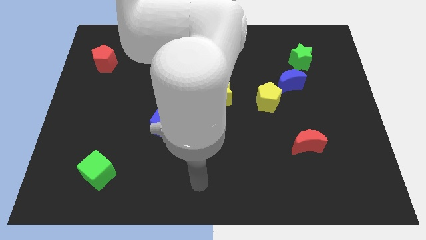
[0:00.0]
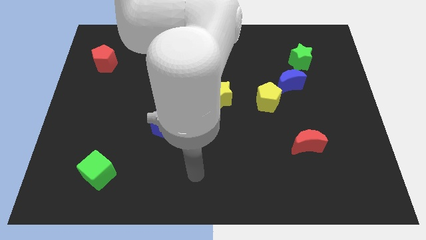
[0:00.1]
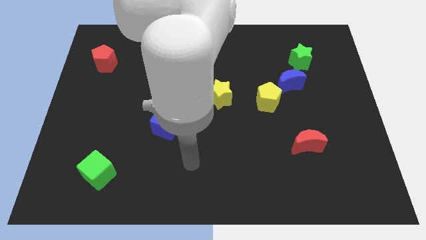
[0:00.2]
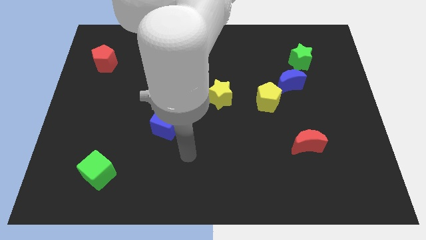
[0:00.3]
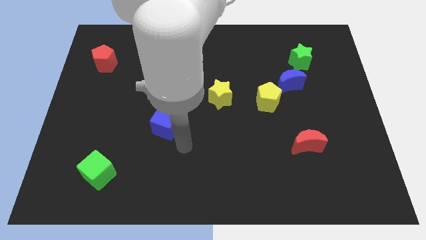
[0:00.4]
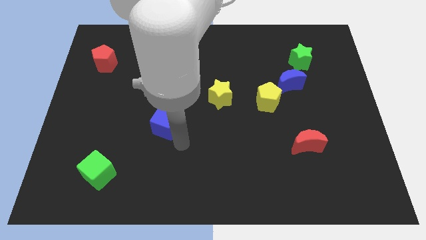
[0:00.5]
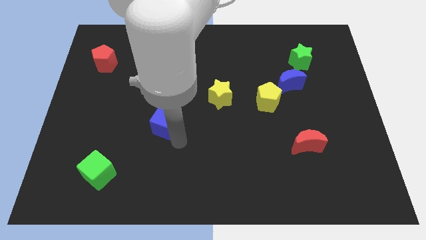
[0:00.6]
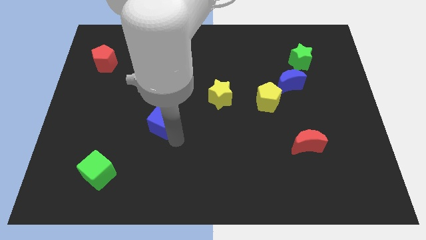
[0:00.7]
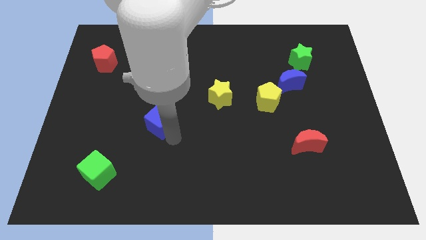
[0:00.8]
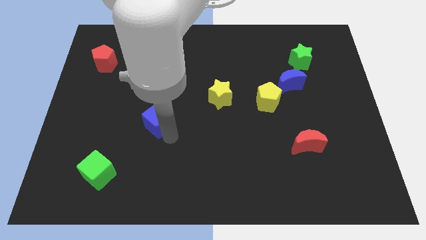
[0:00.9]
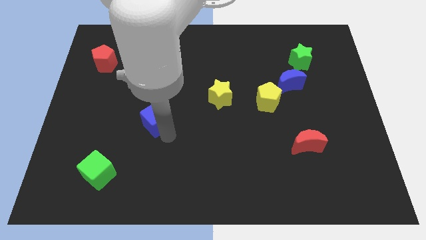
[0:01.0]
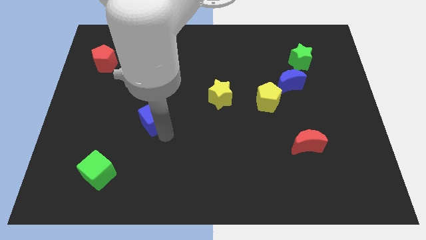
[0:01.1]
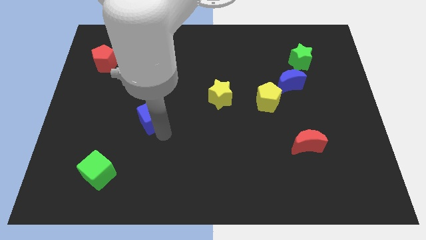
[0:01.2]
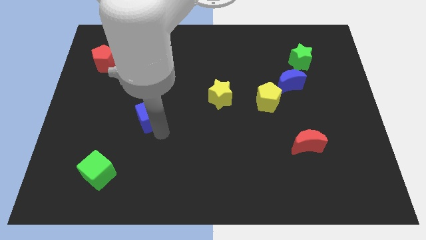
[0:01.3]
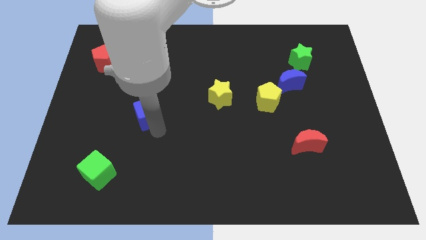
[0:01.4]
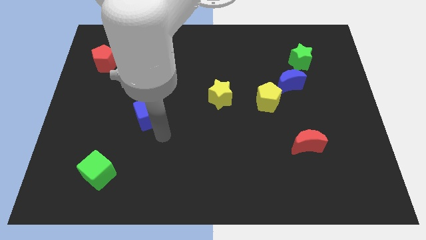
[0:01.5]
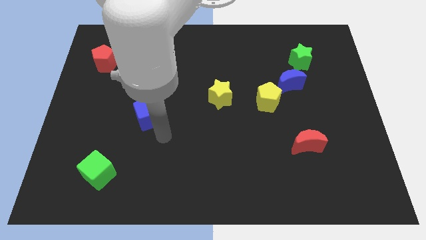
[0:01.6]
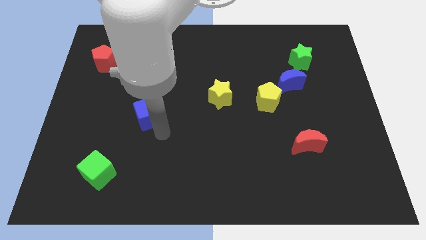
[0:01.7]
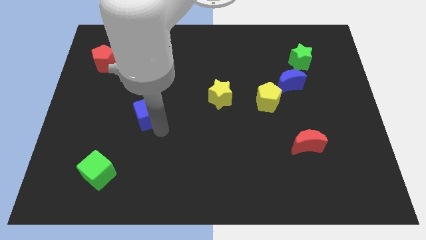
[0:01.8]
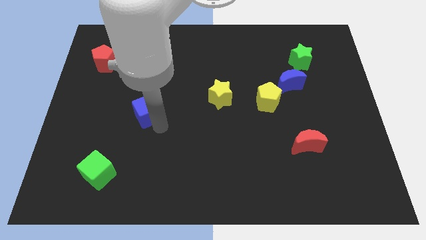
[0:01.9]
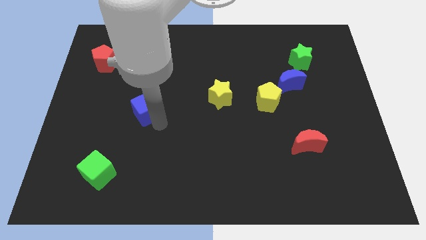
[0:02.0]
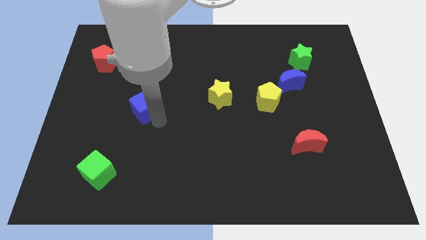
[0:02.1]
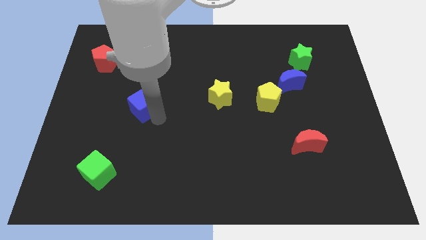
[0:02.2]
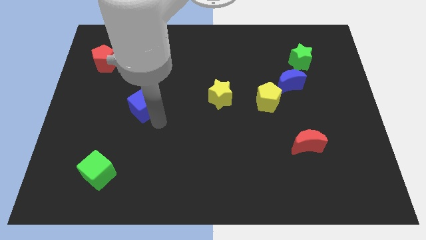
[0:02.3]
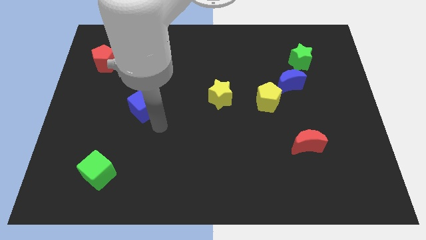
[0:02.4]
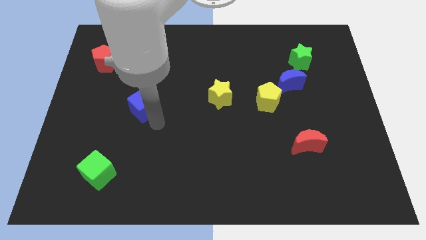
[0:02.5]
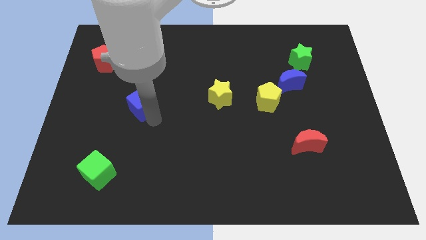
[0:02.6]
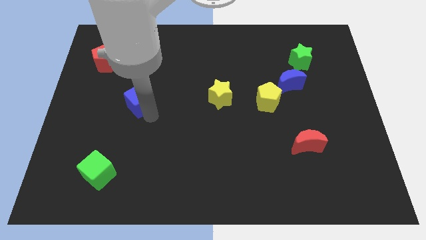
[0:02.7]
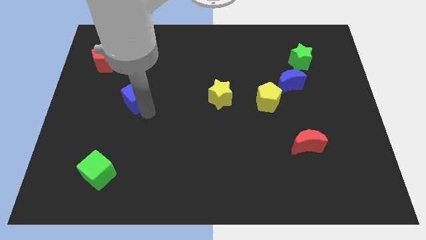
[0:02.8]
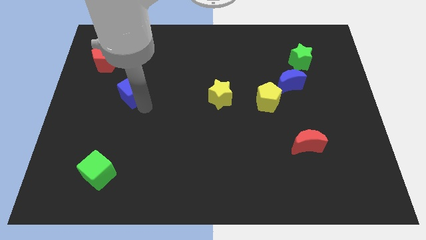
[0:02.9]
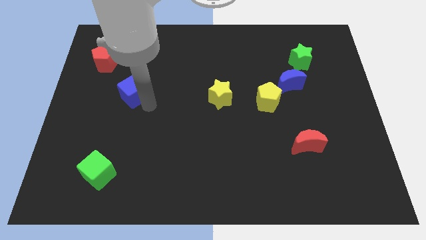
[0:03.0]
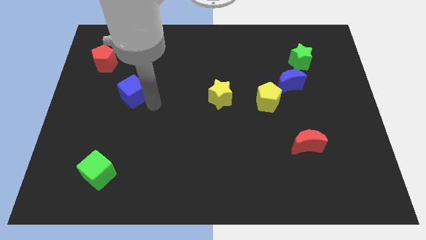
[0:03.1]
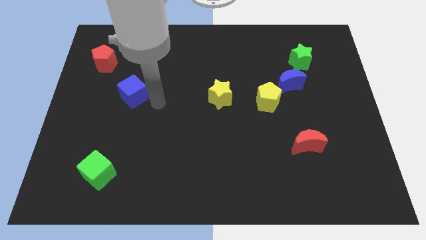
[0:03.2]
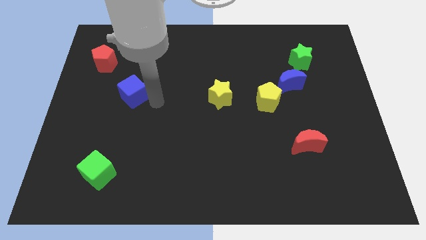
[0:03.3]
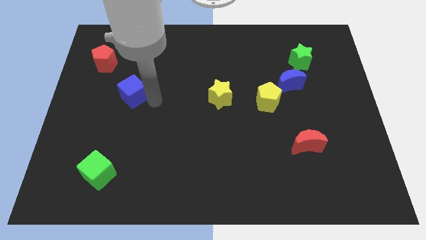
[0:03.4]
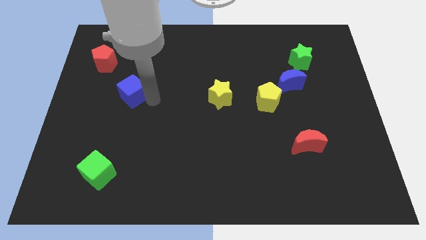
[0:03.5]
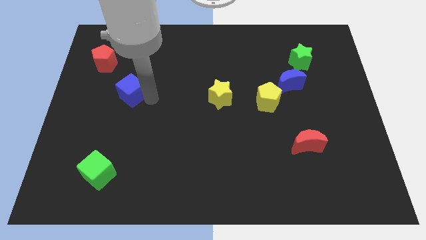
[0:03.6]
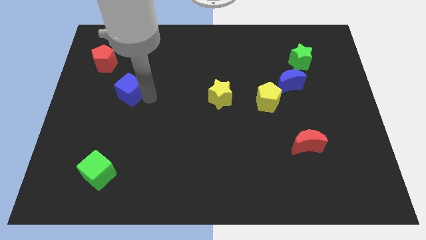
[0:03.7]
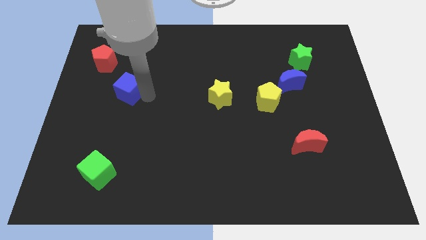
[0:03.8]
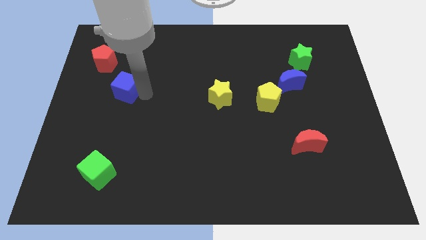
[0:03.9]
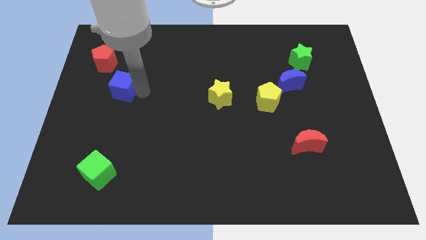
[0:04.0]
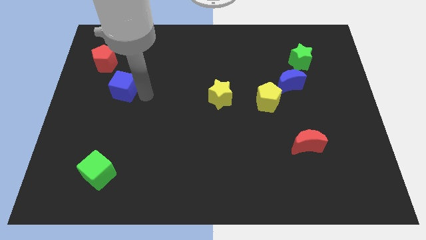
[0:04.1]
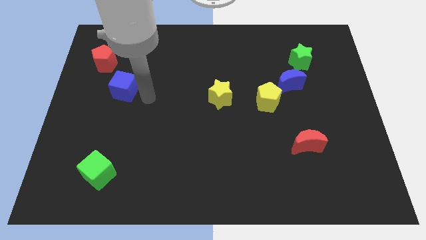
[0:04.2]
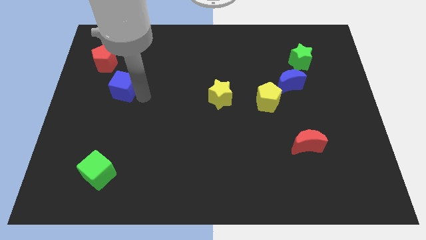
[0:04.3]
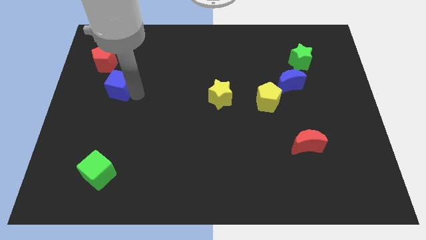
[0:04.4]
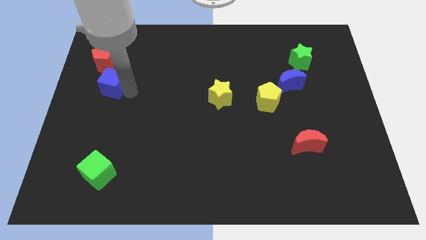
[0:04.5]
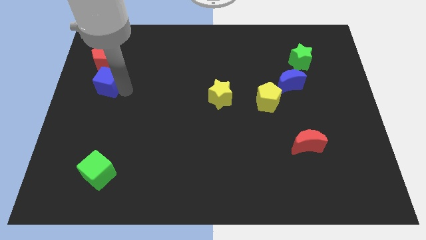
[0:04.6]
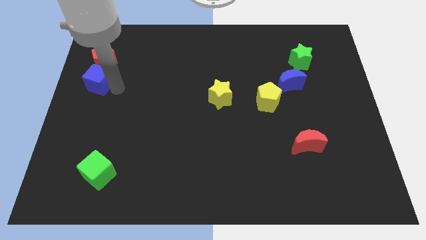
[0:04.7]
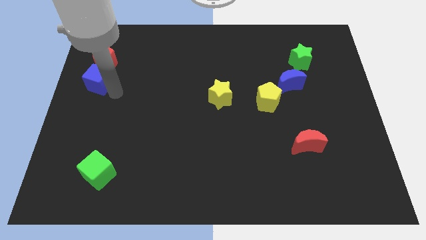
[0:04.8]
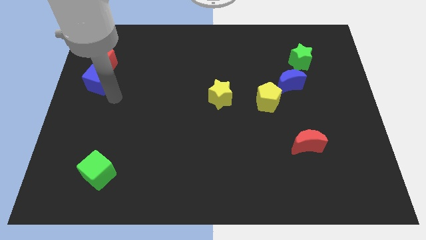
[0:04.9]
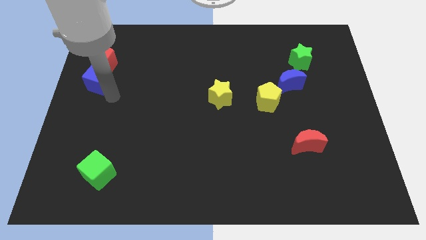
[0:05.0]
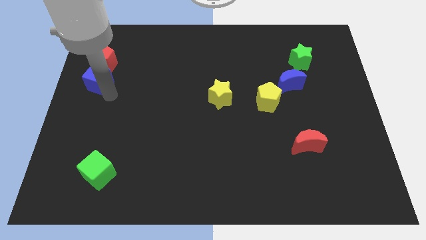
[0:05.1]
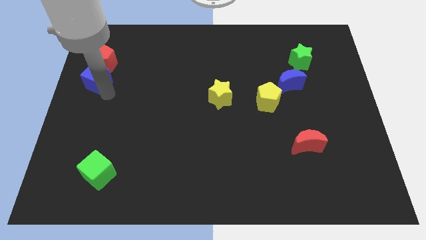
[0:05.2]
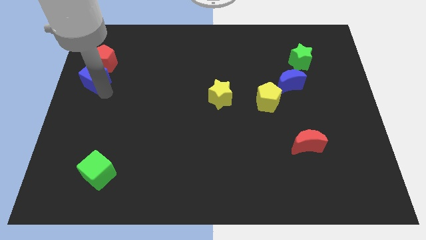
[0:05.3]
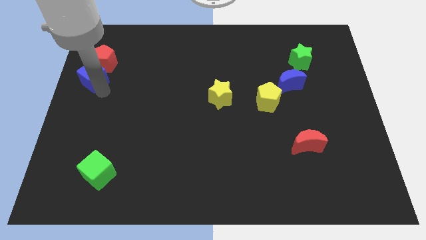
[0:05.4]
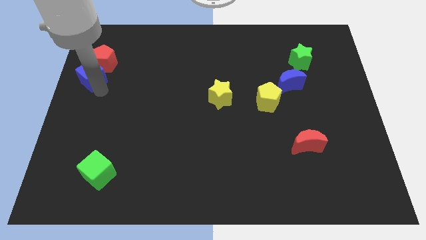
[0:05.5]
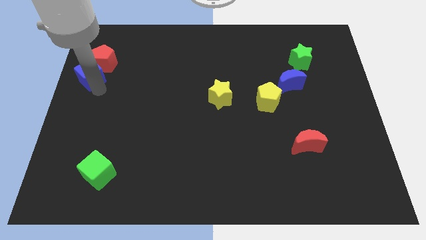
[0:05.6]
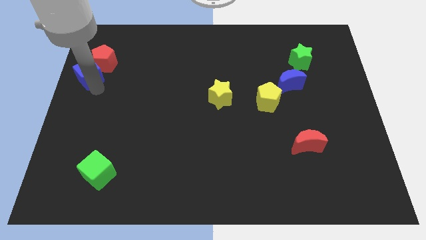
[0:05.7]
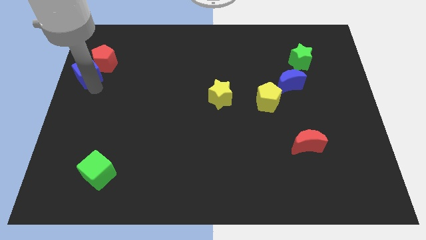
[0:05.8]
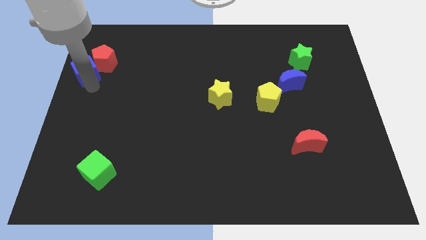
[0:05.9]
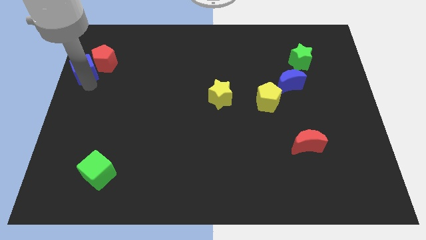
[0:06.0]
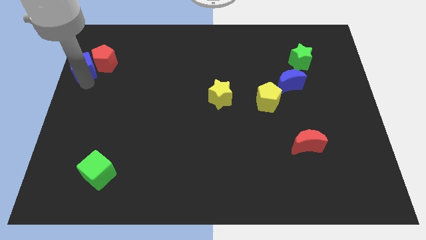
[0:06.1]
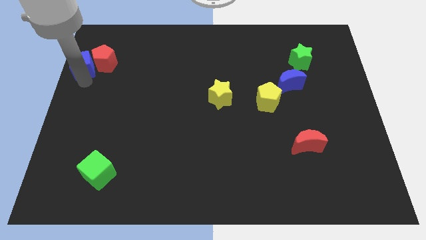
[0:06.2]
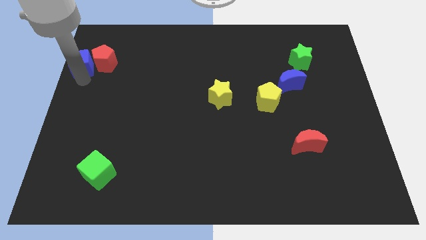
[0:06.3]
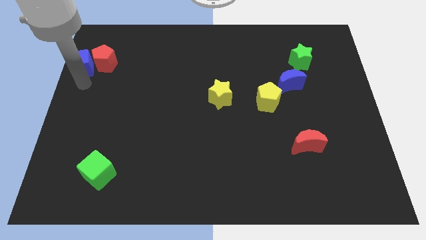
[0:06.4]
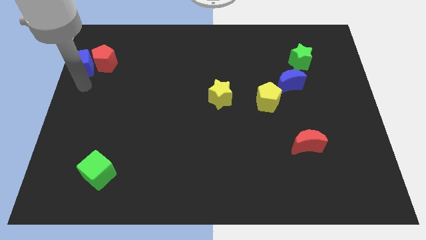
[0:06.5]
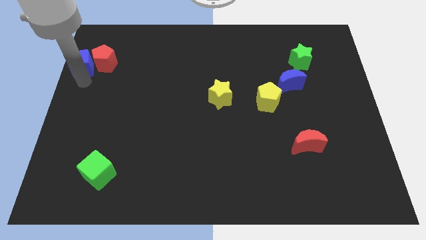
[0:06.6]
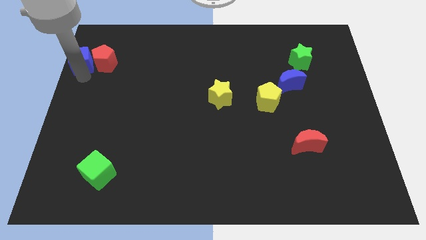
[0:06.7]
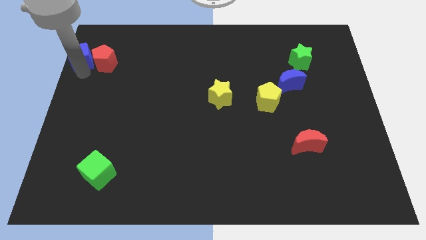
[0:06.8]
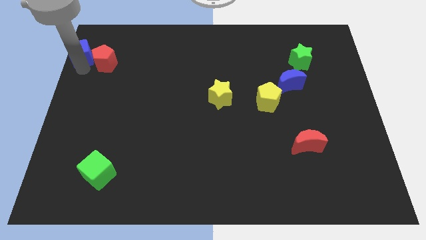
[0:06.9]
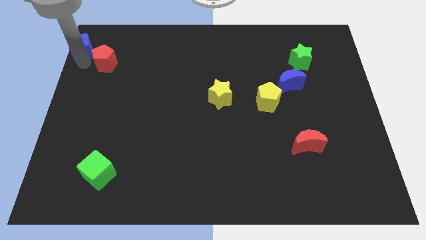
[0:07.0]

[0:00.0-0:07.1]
move the blue cube to the top left corner
